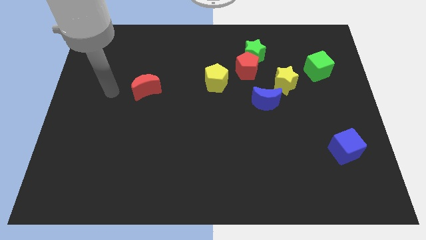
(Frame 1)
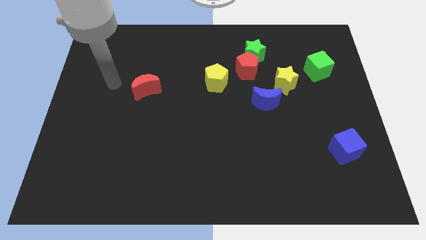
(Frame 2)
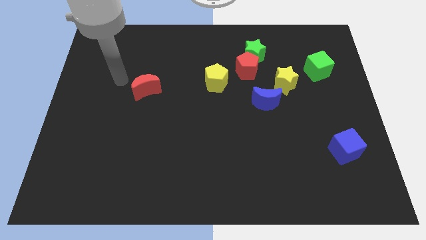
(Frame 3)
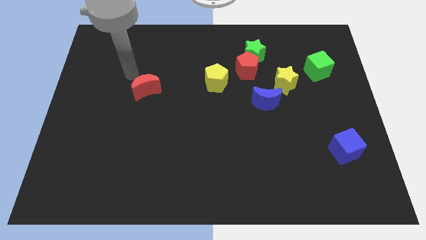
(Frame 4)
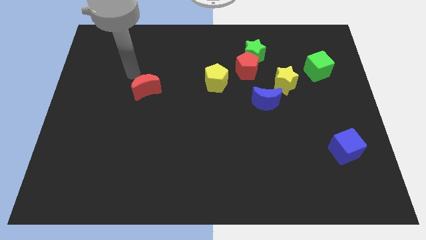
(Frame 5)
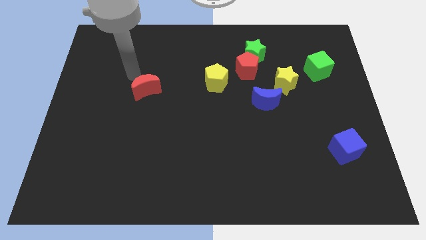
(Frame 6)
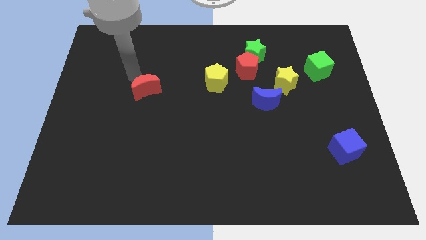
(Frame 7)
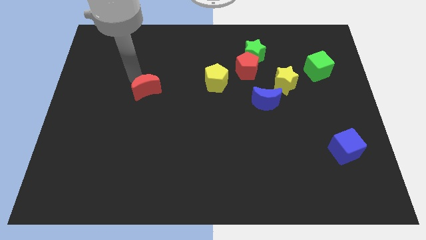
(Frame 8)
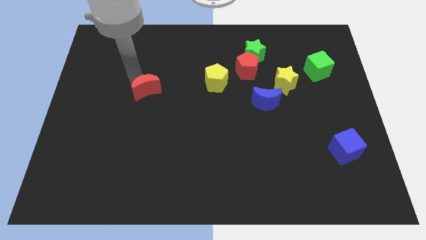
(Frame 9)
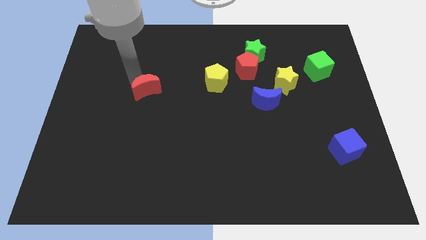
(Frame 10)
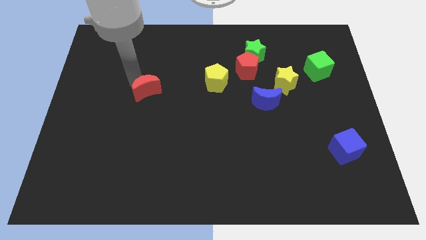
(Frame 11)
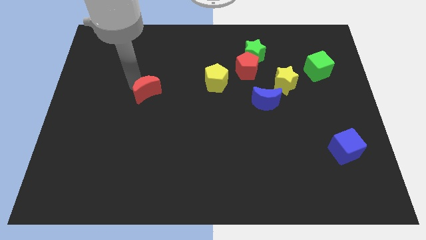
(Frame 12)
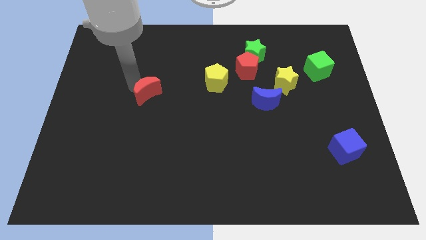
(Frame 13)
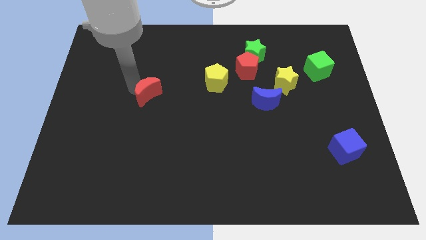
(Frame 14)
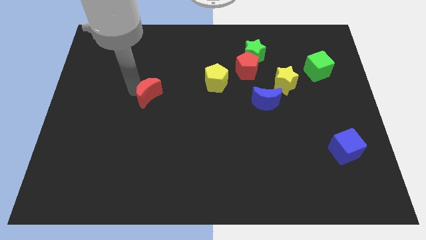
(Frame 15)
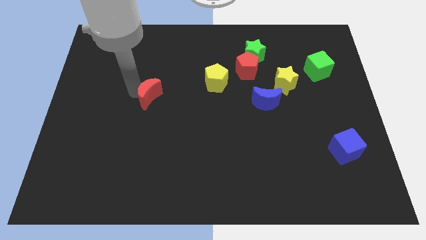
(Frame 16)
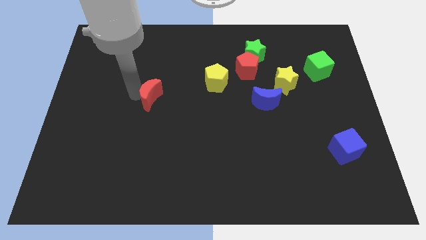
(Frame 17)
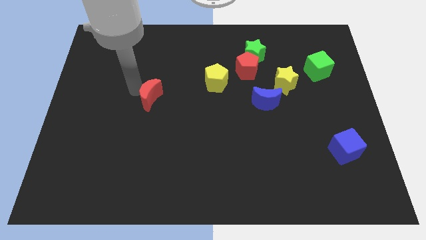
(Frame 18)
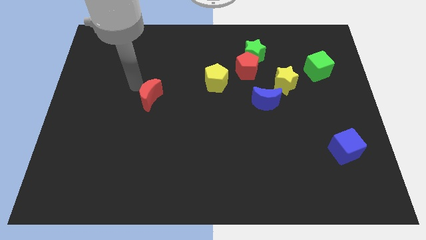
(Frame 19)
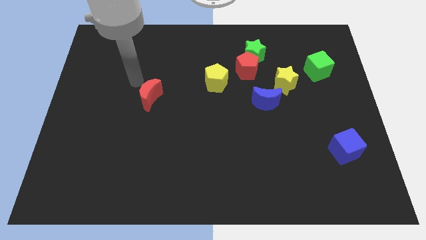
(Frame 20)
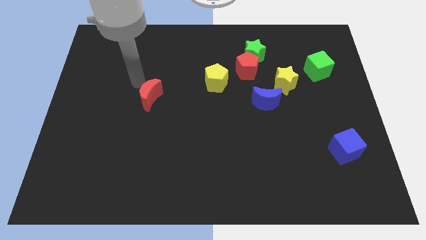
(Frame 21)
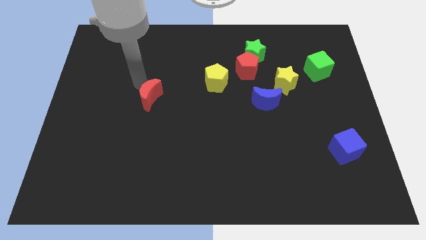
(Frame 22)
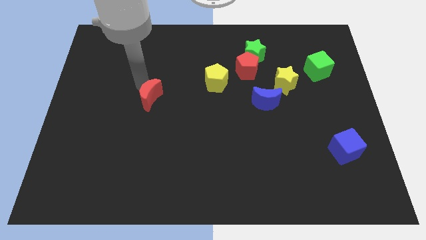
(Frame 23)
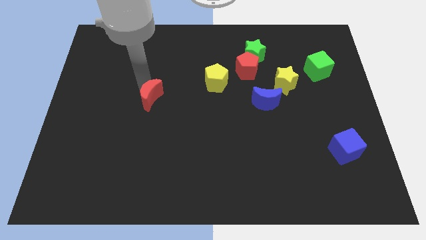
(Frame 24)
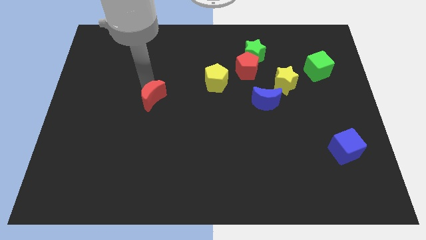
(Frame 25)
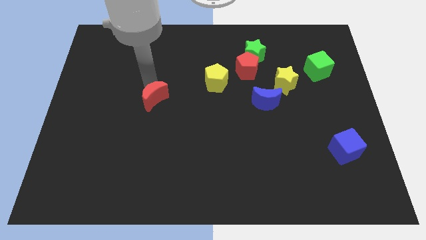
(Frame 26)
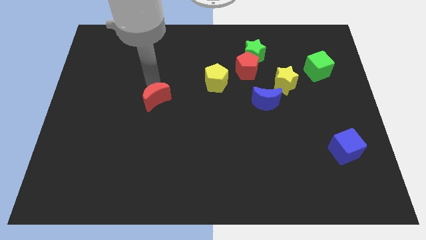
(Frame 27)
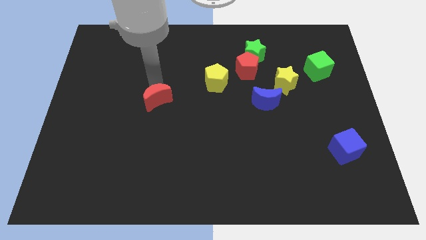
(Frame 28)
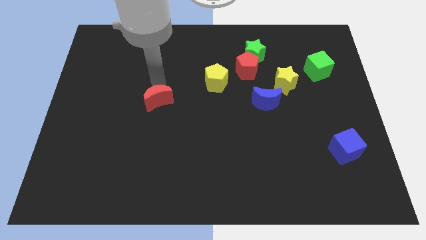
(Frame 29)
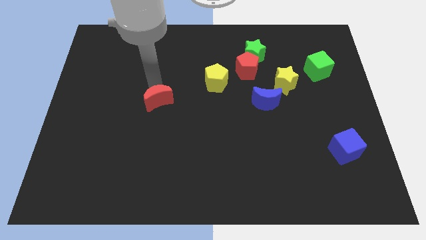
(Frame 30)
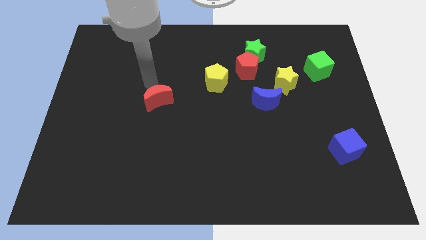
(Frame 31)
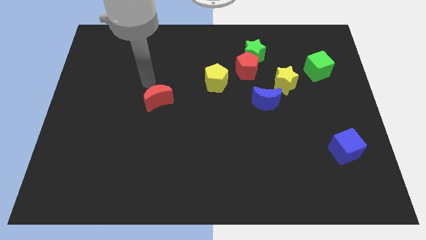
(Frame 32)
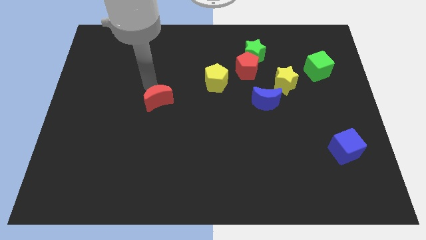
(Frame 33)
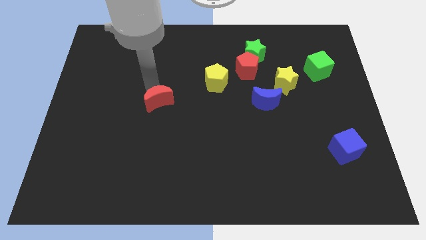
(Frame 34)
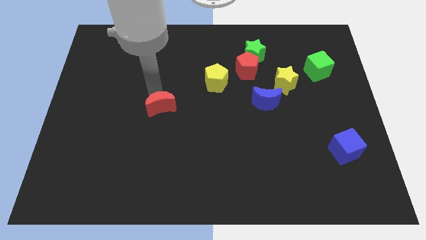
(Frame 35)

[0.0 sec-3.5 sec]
slide the red moon a little bit diagonally down and to the right

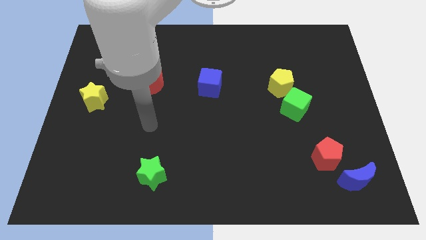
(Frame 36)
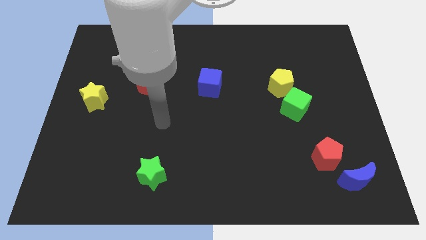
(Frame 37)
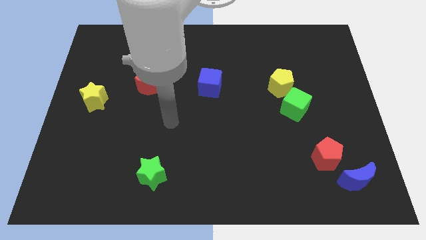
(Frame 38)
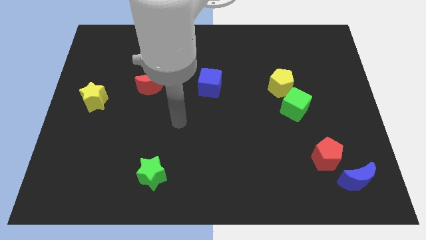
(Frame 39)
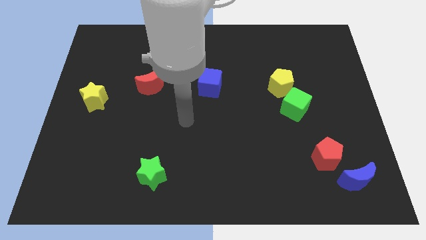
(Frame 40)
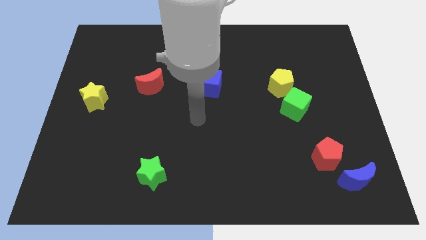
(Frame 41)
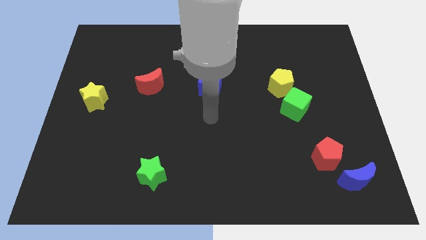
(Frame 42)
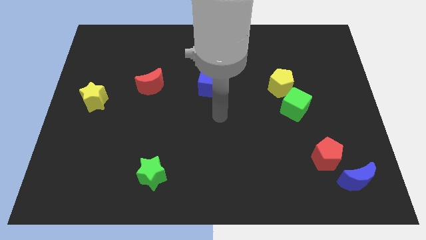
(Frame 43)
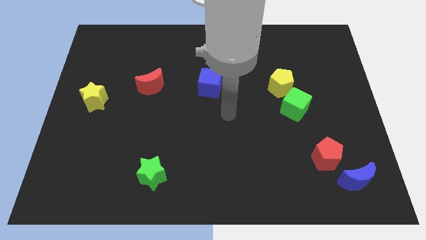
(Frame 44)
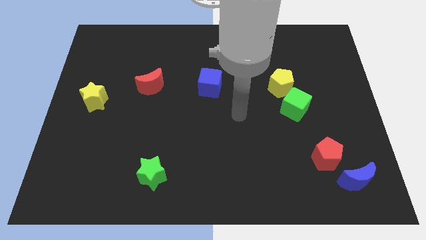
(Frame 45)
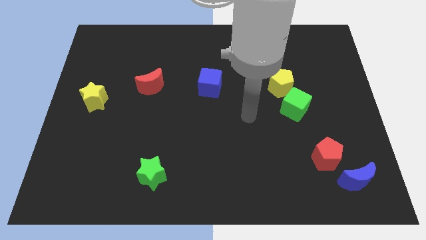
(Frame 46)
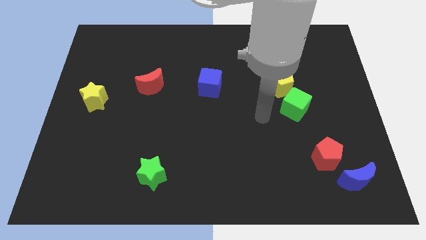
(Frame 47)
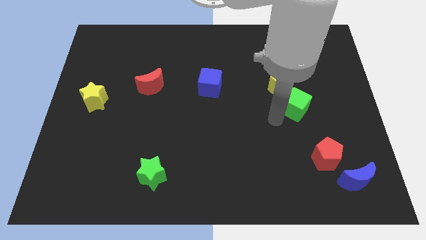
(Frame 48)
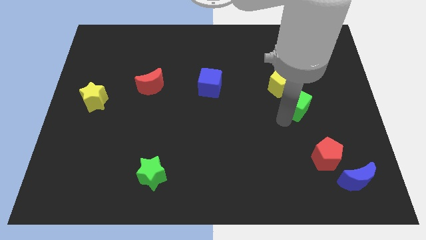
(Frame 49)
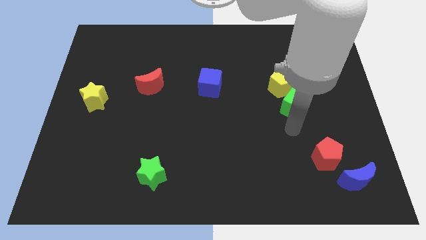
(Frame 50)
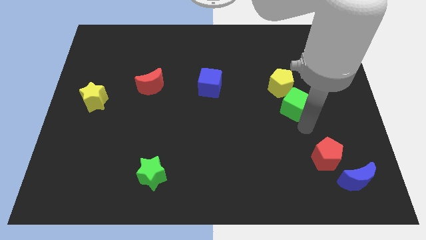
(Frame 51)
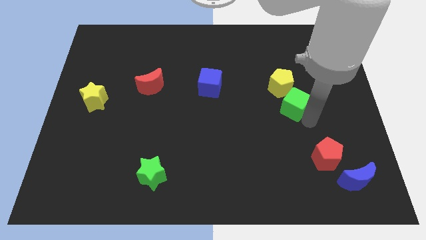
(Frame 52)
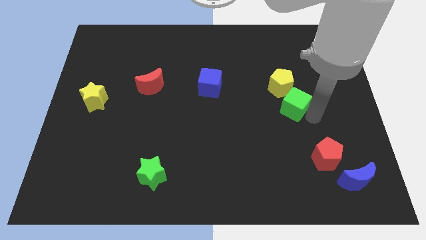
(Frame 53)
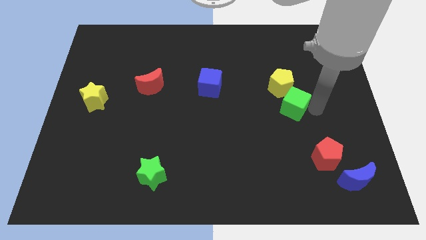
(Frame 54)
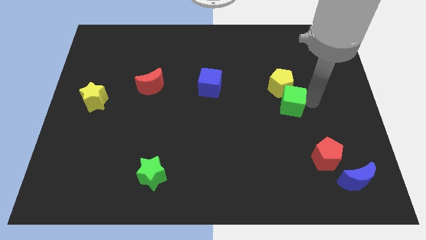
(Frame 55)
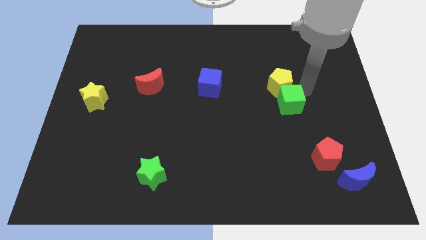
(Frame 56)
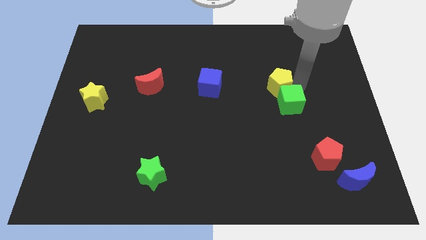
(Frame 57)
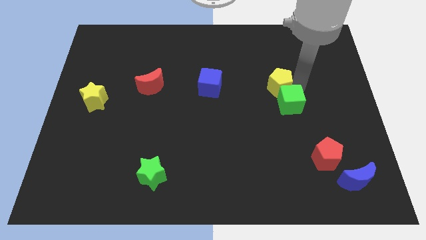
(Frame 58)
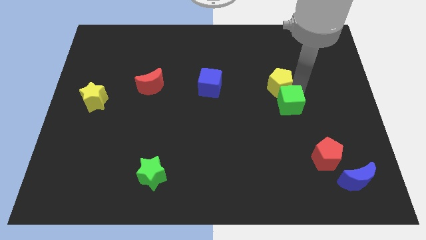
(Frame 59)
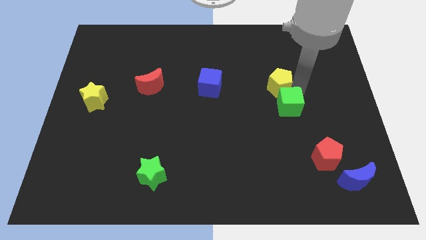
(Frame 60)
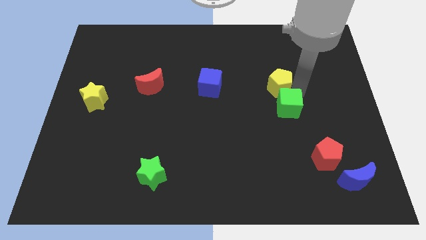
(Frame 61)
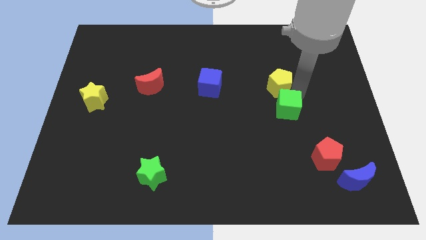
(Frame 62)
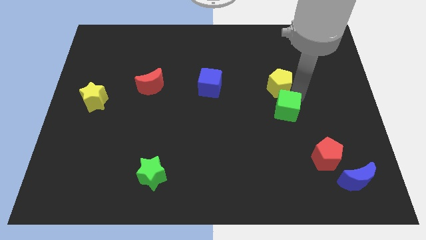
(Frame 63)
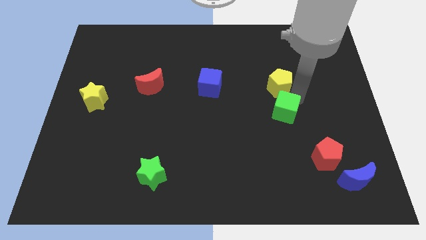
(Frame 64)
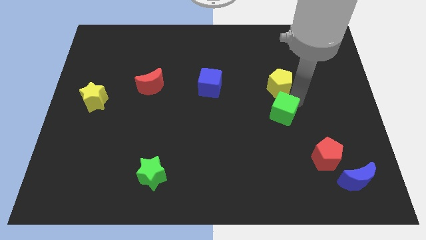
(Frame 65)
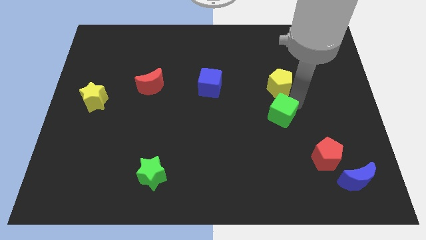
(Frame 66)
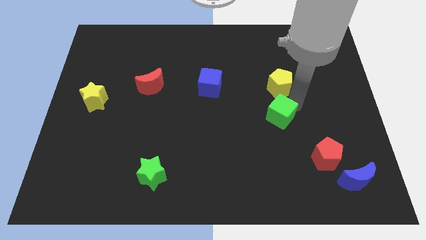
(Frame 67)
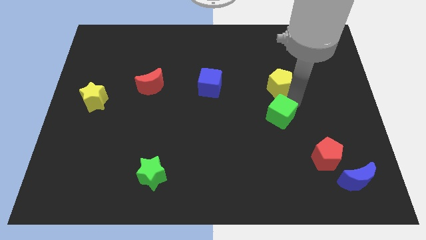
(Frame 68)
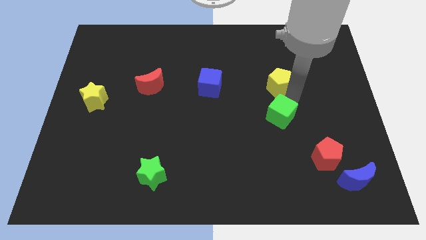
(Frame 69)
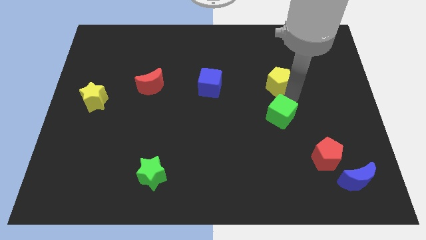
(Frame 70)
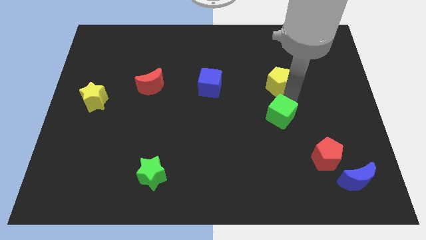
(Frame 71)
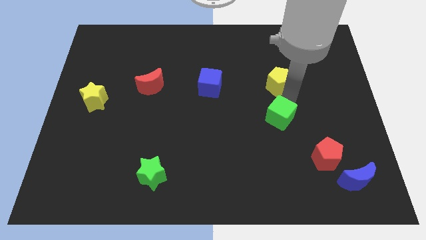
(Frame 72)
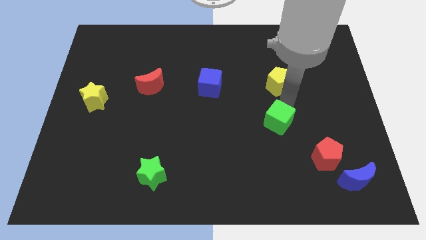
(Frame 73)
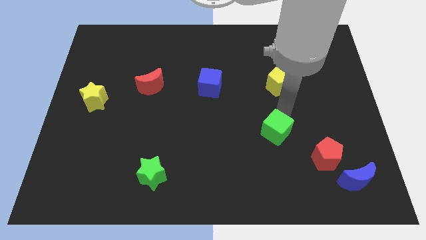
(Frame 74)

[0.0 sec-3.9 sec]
move the green cube diagonally downwards and left a bit

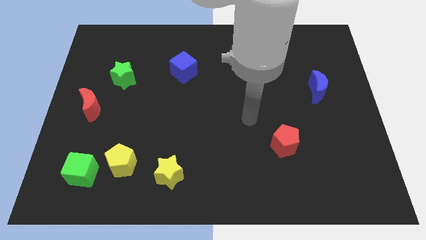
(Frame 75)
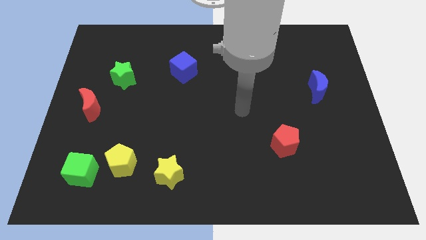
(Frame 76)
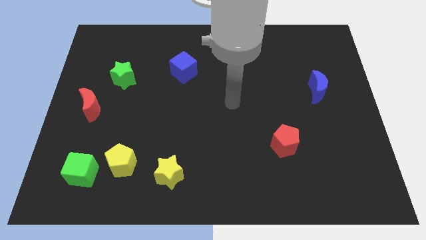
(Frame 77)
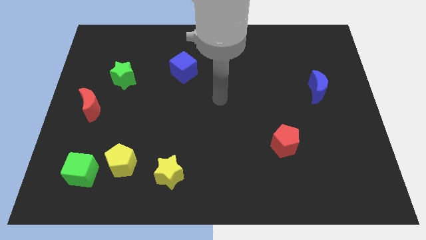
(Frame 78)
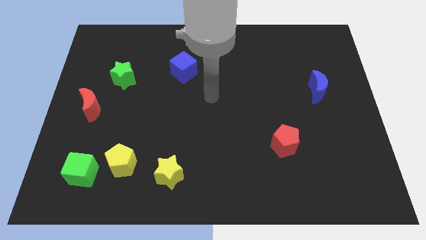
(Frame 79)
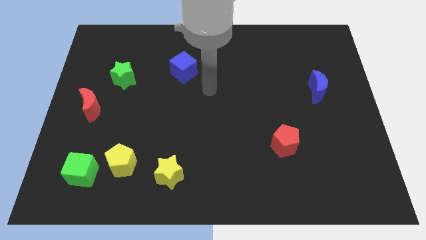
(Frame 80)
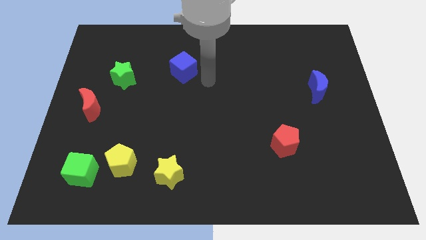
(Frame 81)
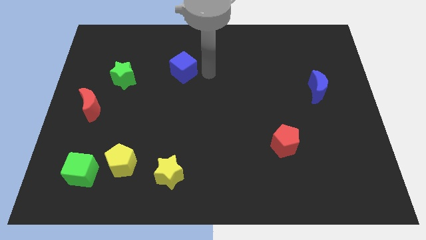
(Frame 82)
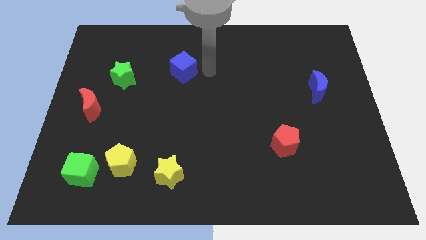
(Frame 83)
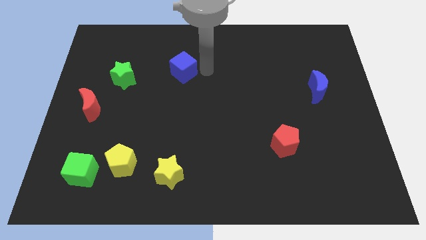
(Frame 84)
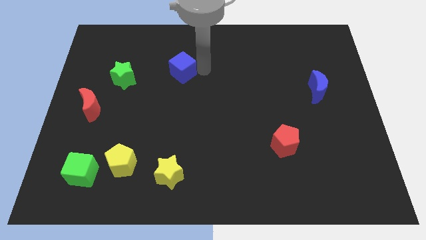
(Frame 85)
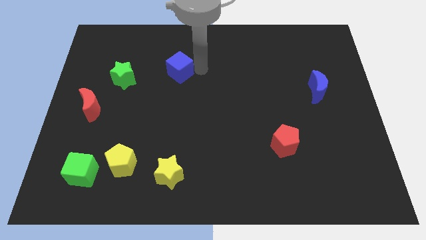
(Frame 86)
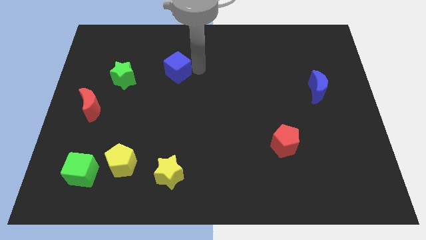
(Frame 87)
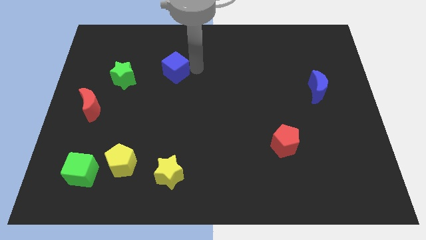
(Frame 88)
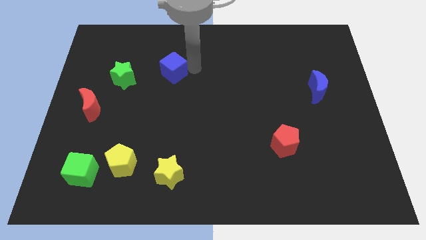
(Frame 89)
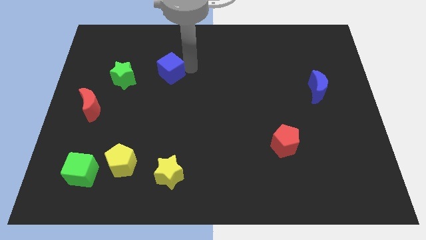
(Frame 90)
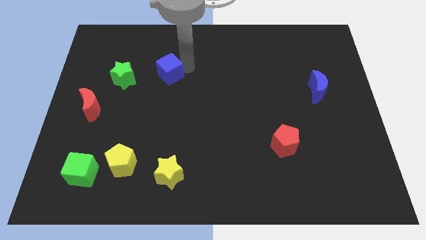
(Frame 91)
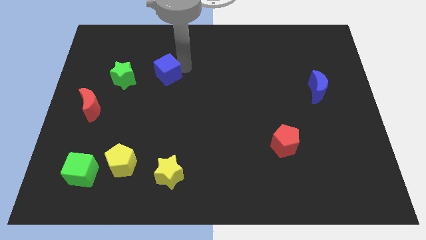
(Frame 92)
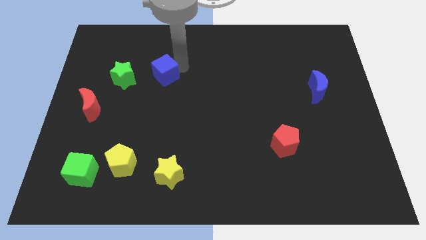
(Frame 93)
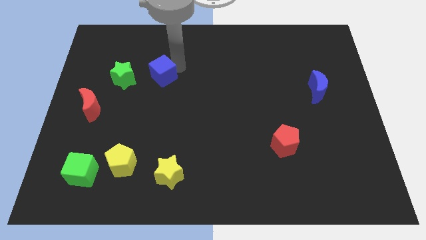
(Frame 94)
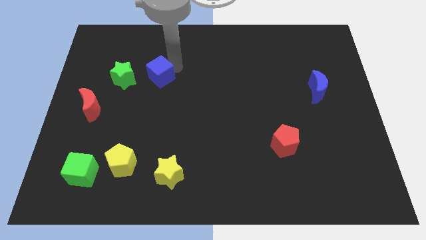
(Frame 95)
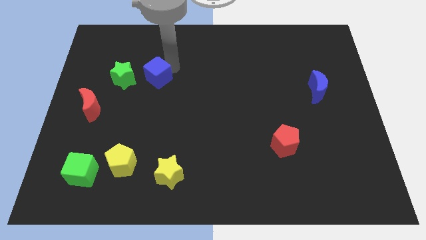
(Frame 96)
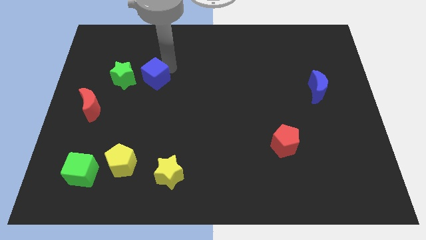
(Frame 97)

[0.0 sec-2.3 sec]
move the blue cube to the left somewhat
